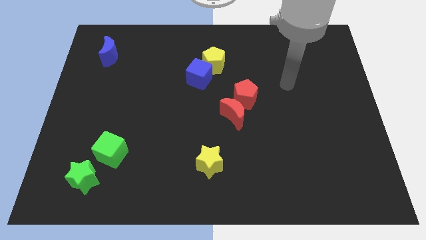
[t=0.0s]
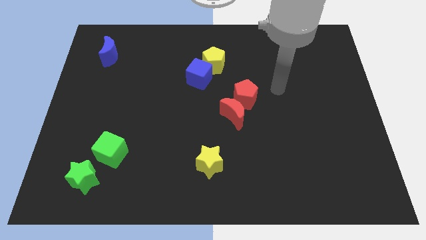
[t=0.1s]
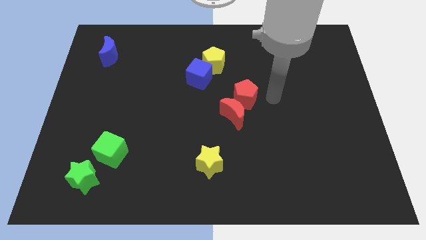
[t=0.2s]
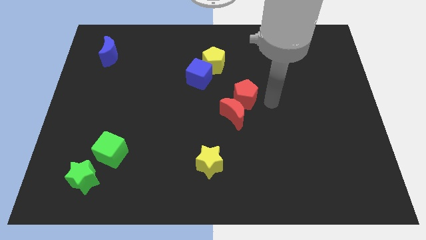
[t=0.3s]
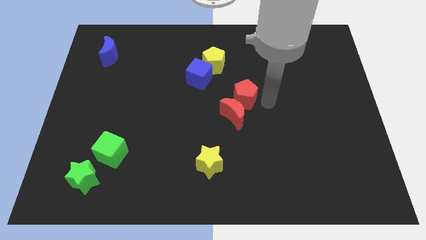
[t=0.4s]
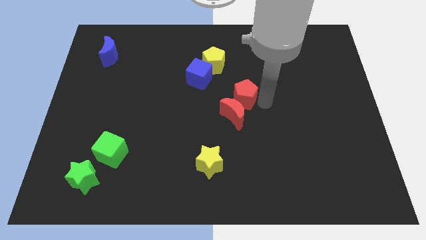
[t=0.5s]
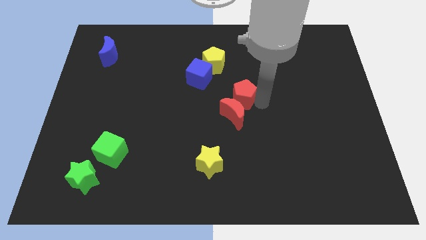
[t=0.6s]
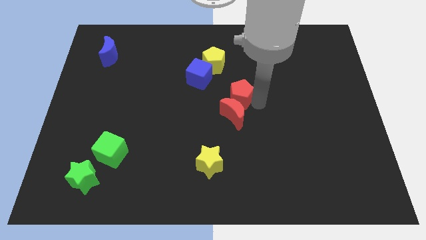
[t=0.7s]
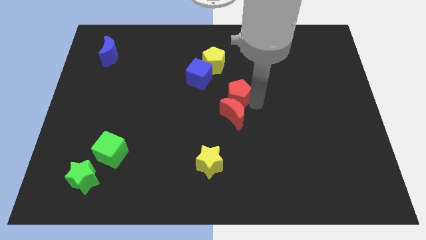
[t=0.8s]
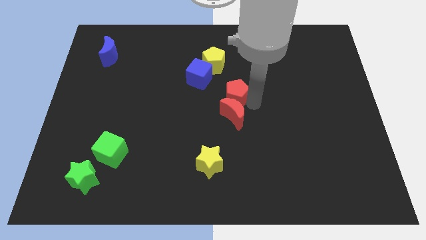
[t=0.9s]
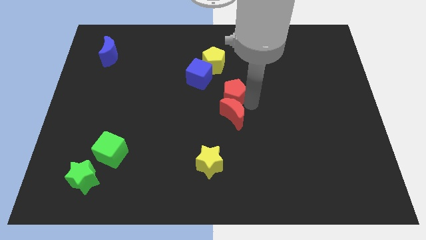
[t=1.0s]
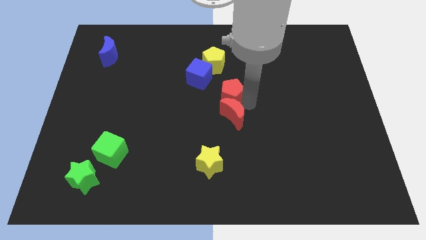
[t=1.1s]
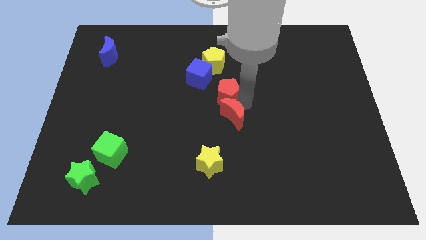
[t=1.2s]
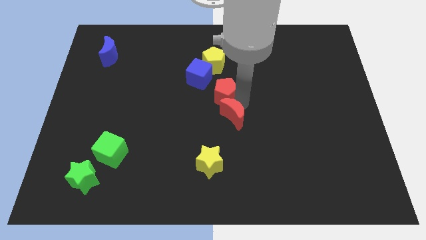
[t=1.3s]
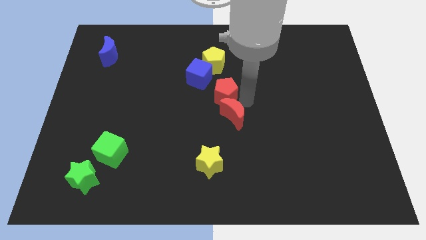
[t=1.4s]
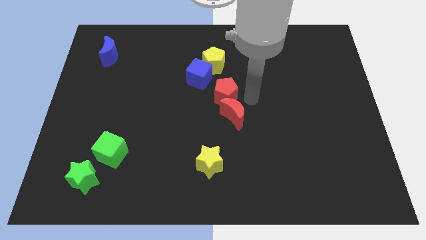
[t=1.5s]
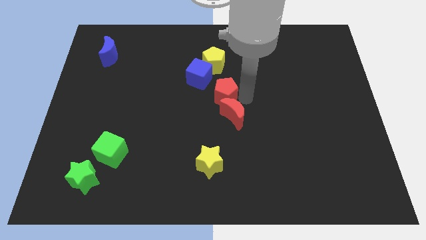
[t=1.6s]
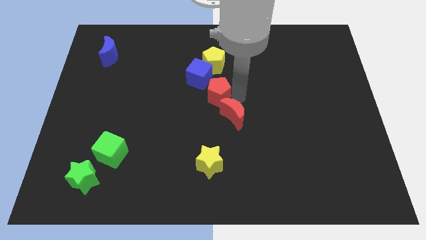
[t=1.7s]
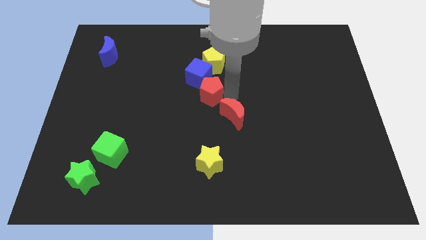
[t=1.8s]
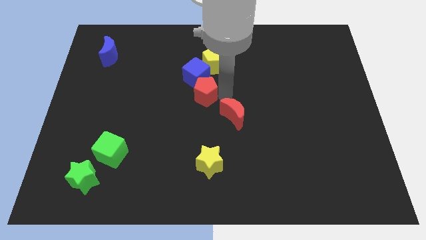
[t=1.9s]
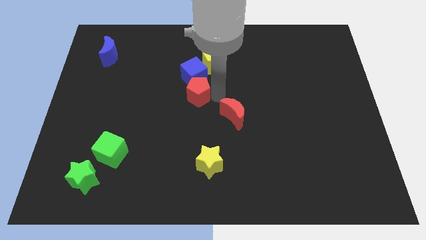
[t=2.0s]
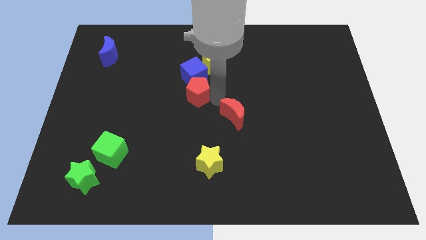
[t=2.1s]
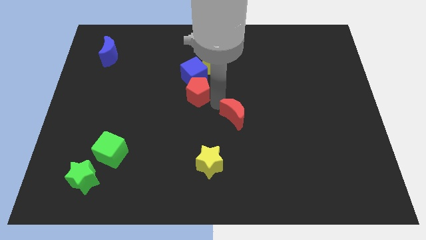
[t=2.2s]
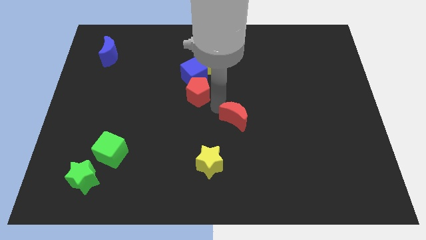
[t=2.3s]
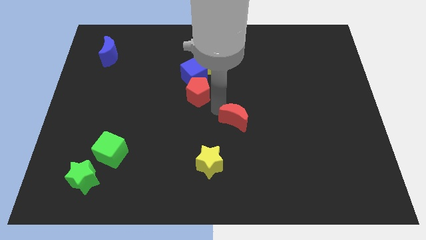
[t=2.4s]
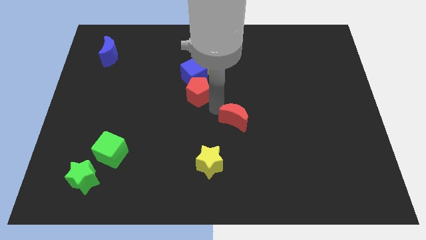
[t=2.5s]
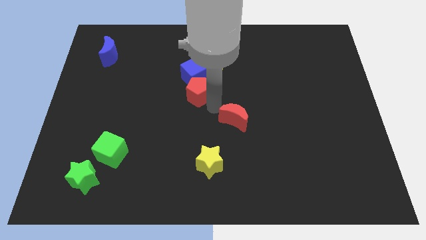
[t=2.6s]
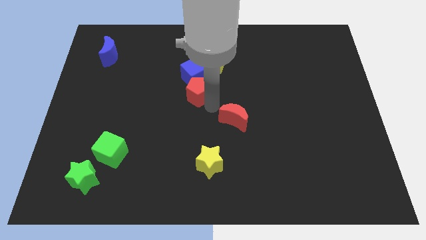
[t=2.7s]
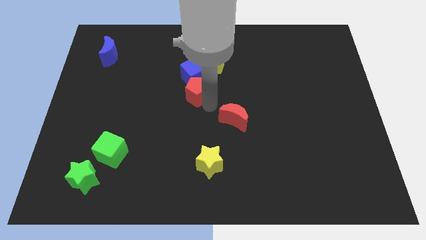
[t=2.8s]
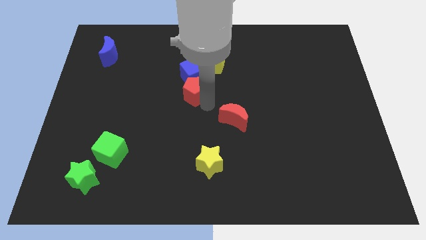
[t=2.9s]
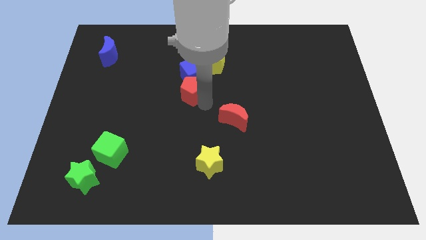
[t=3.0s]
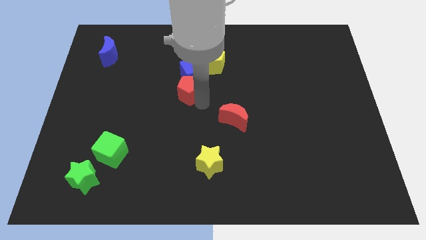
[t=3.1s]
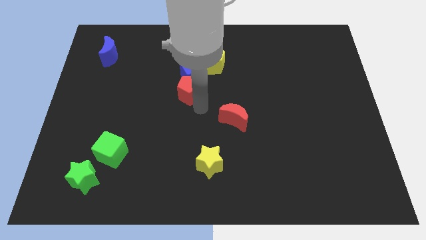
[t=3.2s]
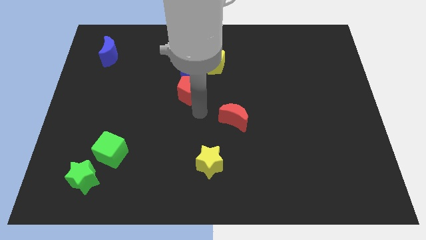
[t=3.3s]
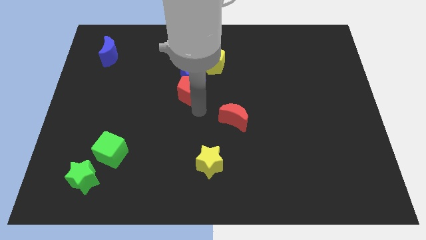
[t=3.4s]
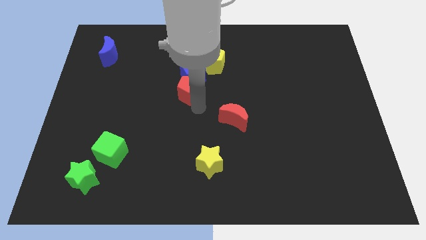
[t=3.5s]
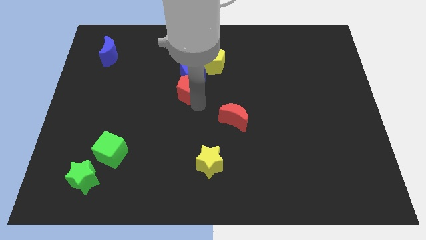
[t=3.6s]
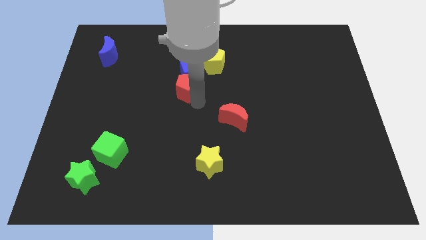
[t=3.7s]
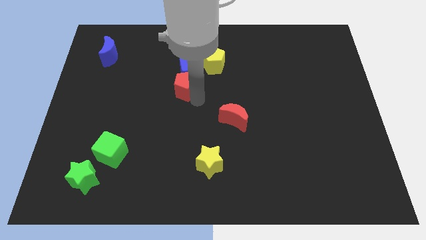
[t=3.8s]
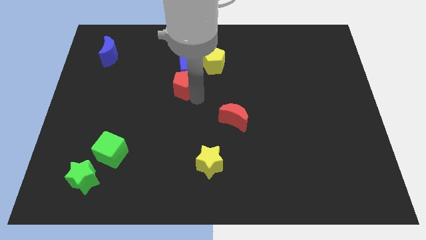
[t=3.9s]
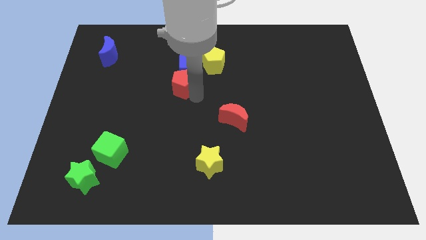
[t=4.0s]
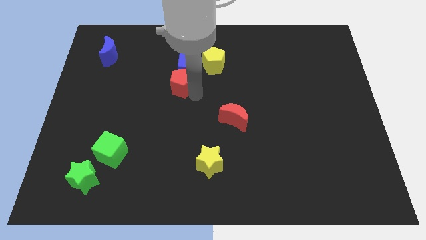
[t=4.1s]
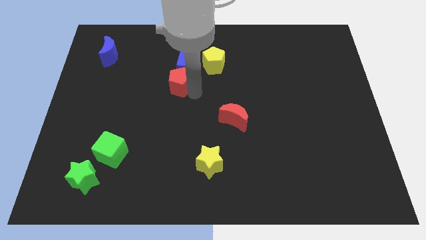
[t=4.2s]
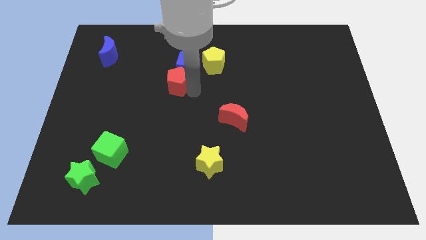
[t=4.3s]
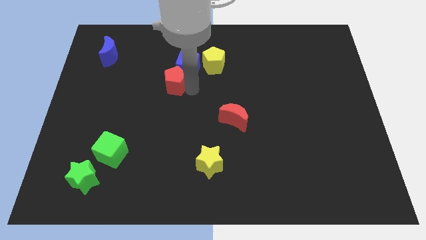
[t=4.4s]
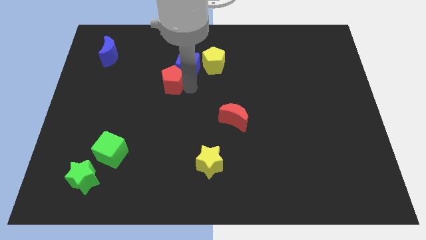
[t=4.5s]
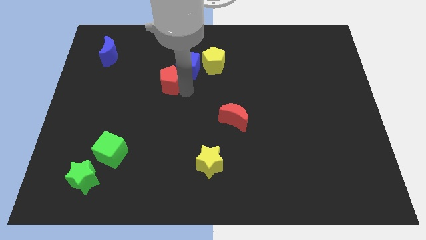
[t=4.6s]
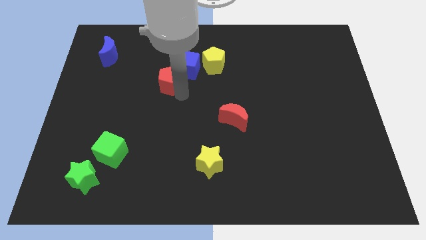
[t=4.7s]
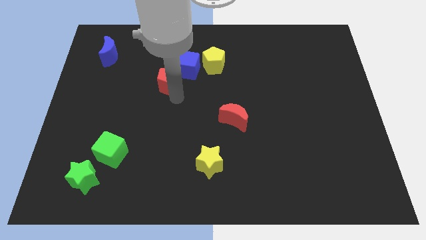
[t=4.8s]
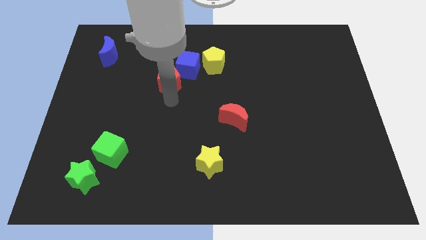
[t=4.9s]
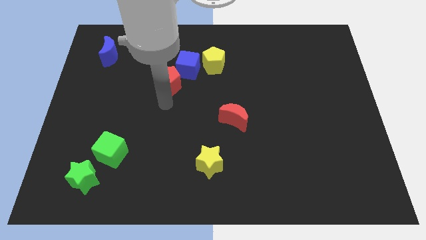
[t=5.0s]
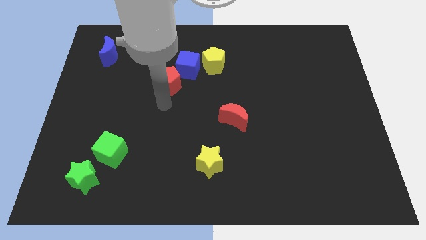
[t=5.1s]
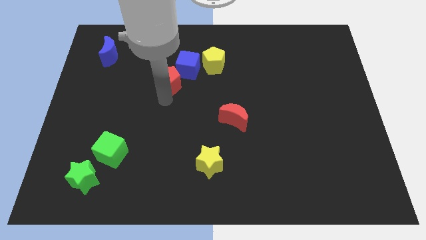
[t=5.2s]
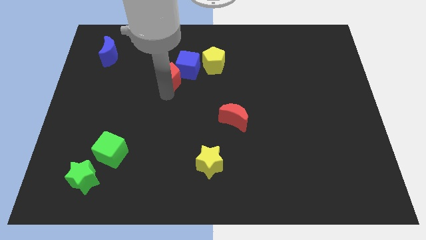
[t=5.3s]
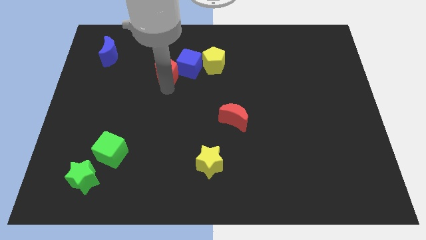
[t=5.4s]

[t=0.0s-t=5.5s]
slide the red pentagon to the left side of the yellow pentagon

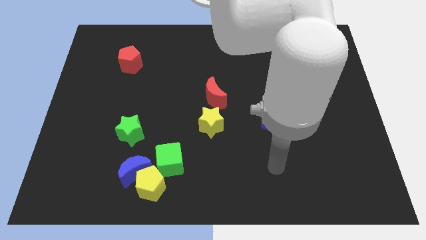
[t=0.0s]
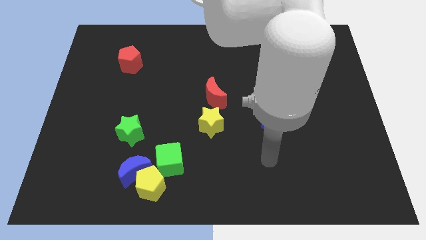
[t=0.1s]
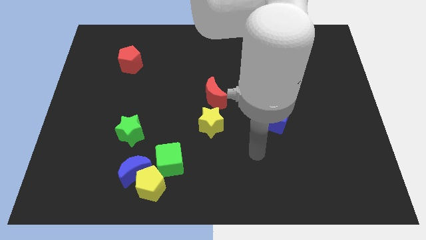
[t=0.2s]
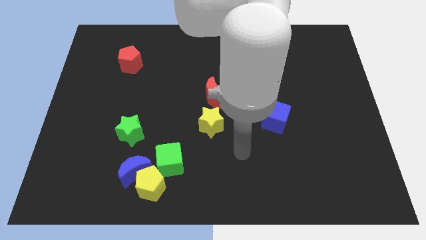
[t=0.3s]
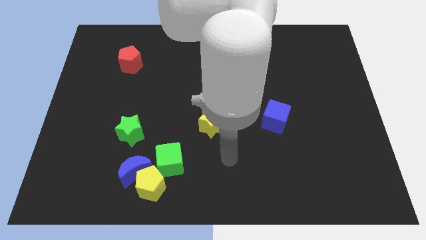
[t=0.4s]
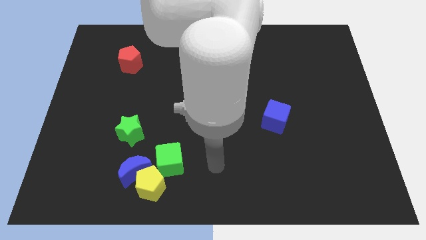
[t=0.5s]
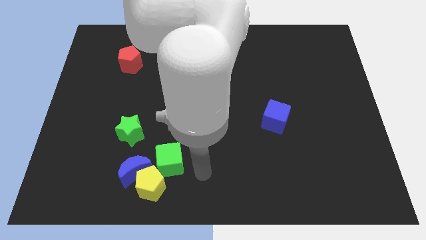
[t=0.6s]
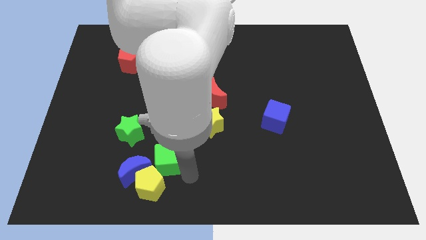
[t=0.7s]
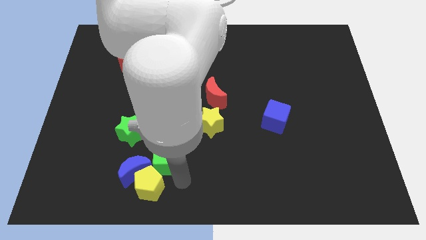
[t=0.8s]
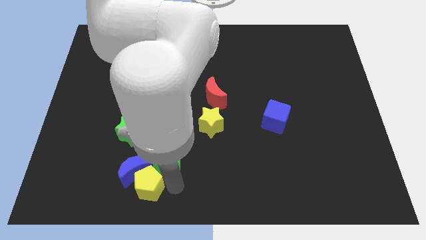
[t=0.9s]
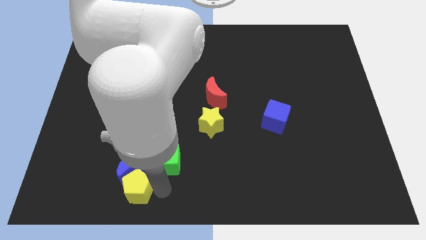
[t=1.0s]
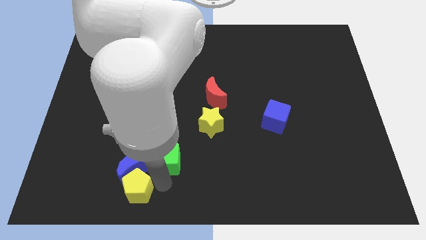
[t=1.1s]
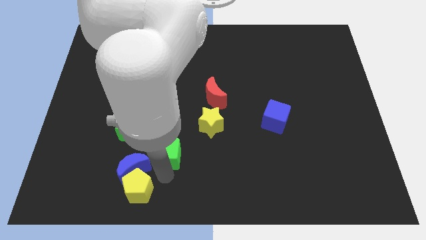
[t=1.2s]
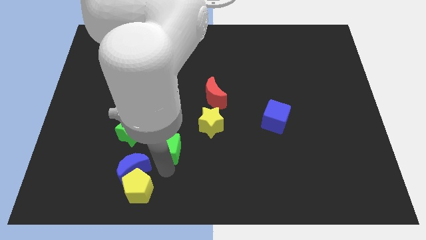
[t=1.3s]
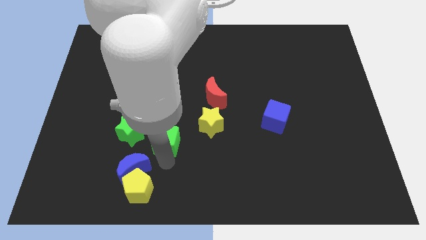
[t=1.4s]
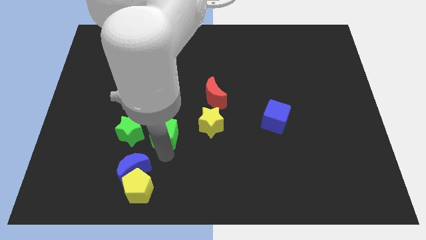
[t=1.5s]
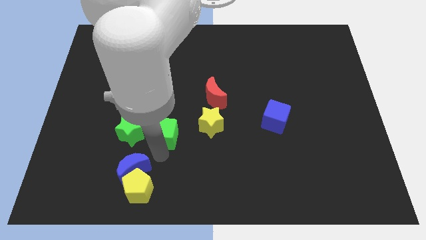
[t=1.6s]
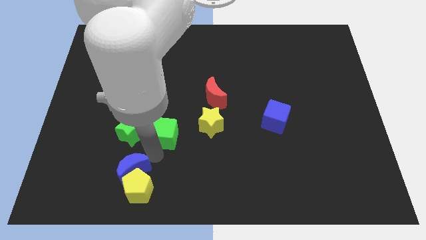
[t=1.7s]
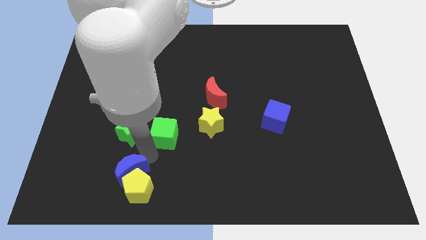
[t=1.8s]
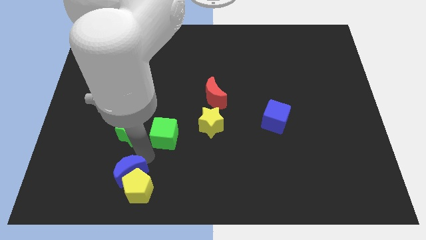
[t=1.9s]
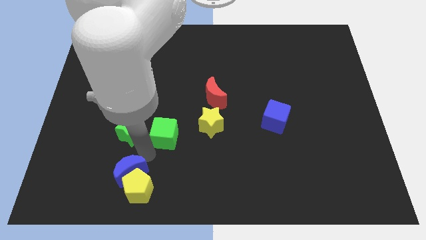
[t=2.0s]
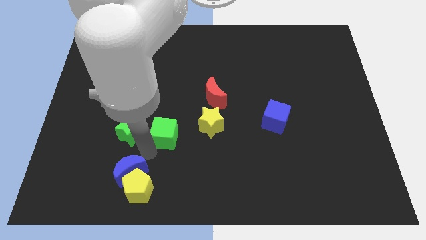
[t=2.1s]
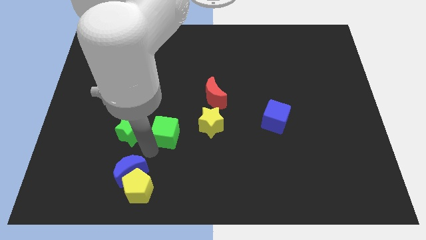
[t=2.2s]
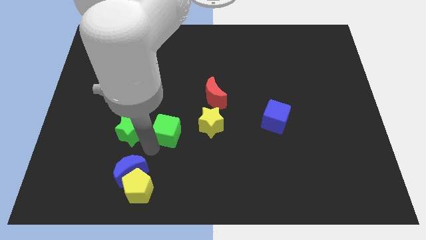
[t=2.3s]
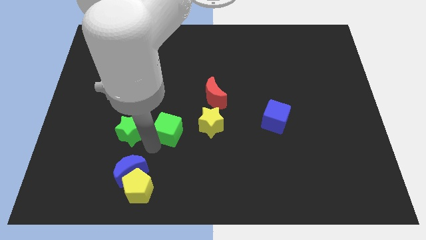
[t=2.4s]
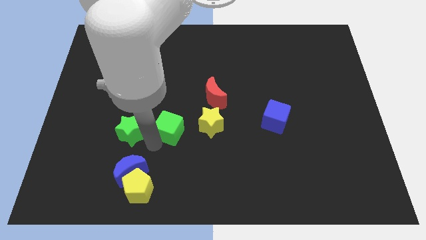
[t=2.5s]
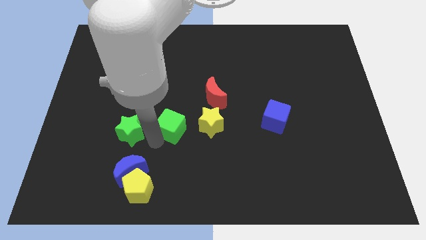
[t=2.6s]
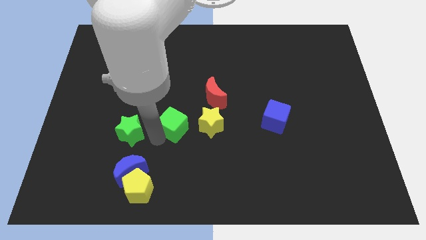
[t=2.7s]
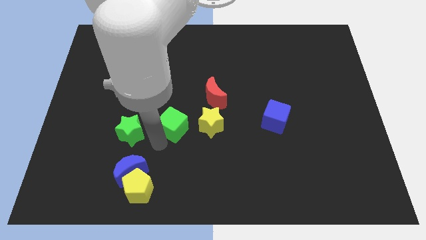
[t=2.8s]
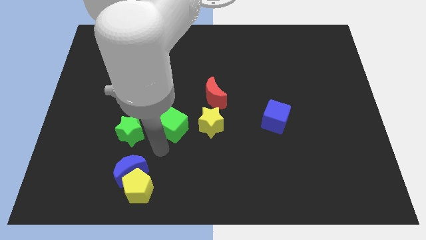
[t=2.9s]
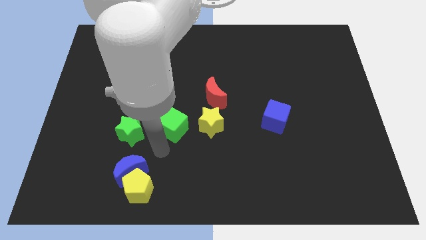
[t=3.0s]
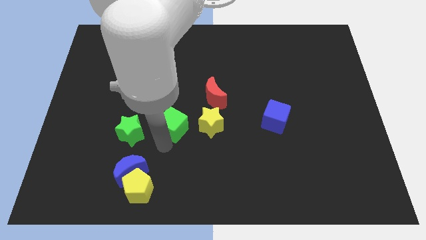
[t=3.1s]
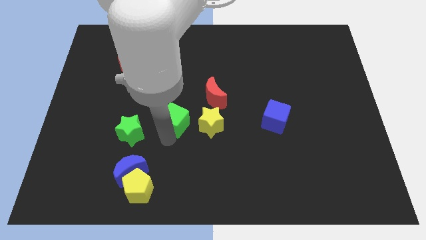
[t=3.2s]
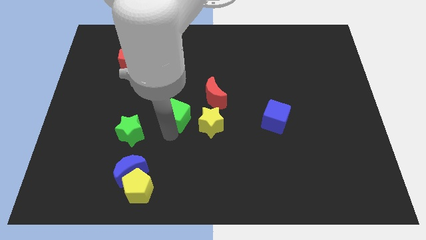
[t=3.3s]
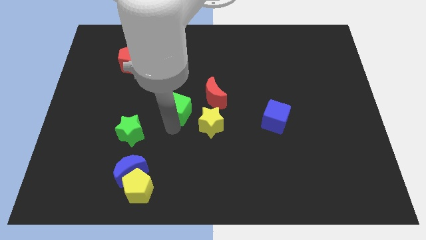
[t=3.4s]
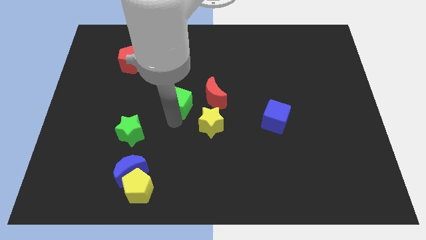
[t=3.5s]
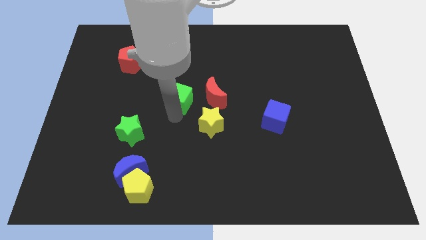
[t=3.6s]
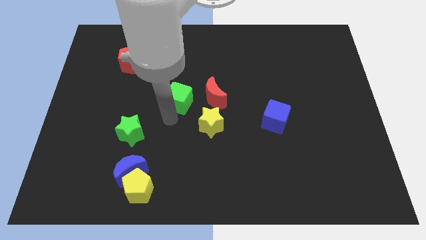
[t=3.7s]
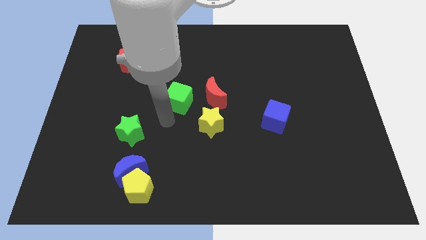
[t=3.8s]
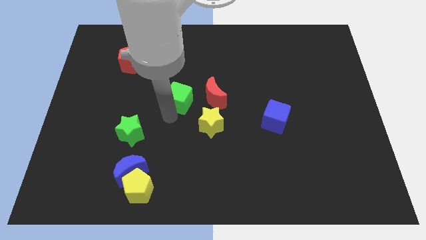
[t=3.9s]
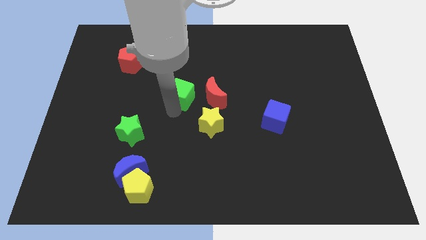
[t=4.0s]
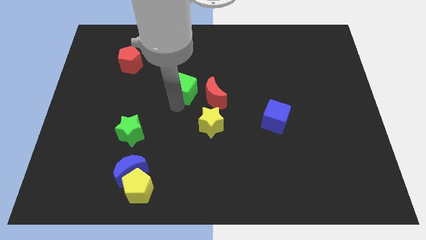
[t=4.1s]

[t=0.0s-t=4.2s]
slide the green cube diagonally up and to the left of the red moon
